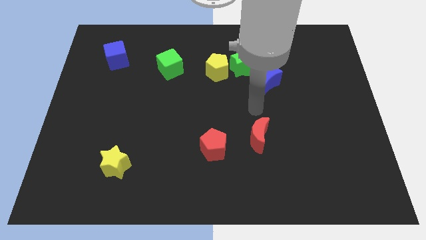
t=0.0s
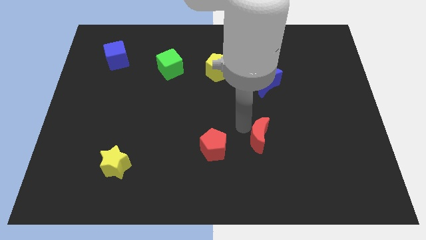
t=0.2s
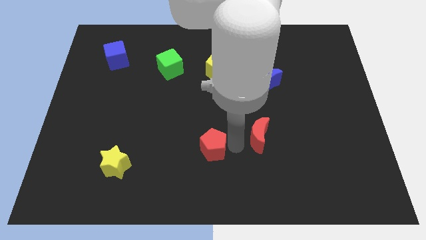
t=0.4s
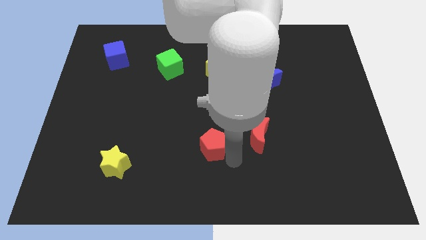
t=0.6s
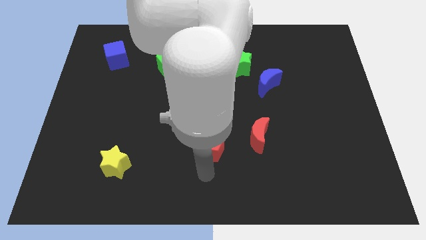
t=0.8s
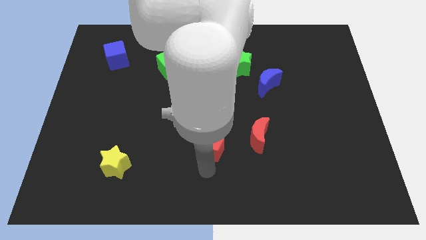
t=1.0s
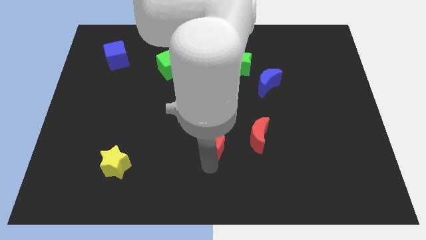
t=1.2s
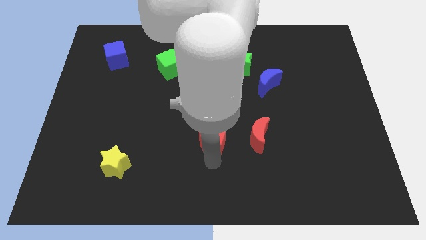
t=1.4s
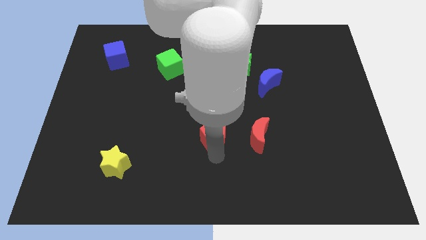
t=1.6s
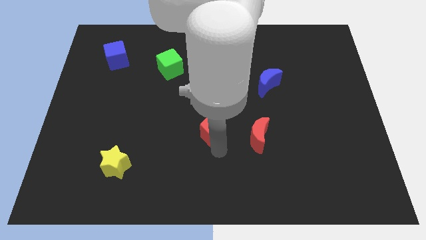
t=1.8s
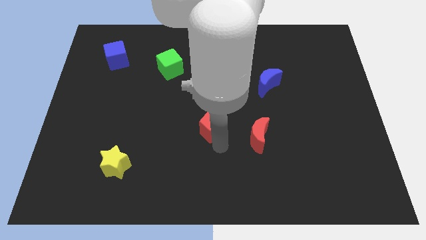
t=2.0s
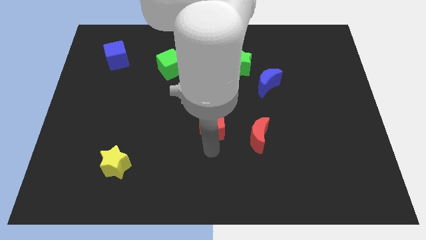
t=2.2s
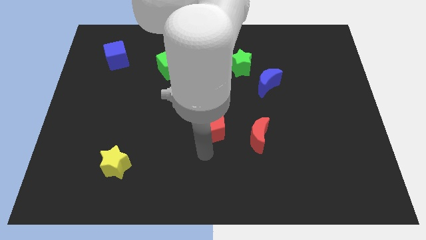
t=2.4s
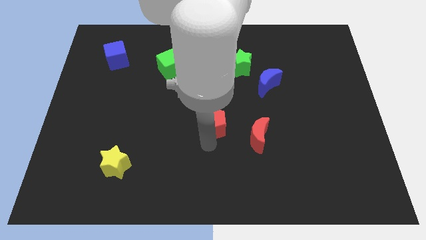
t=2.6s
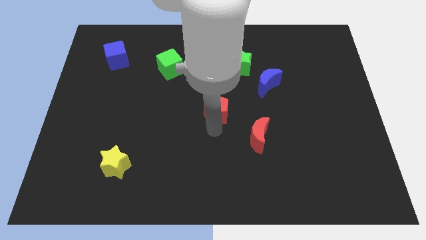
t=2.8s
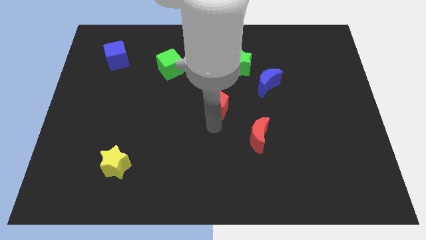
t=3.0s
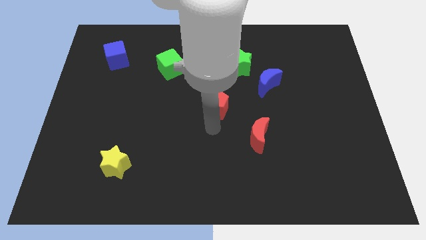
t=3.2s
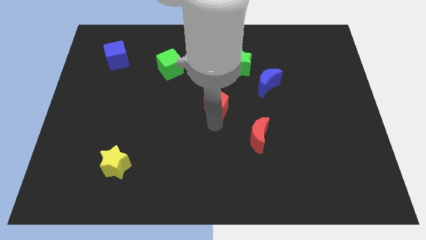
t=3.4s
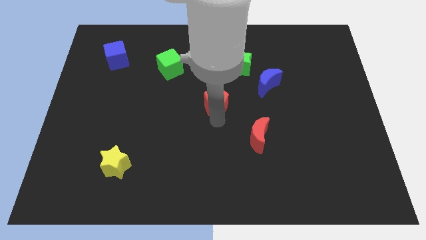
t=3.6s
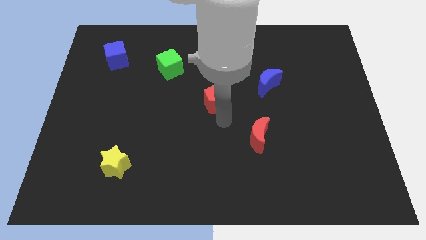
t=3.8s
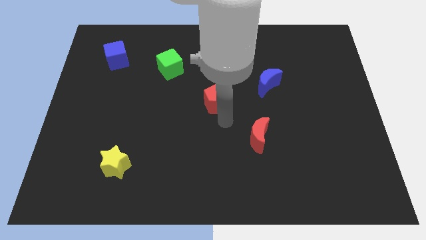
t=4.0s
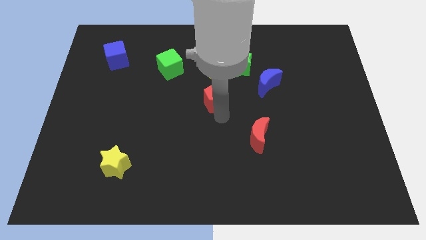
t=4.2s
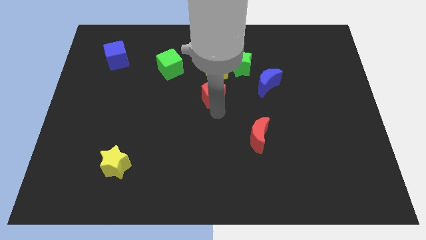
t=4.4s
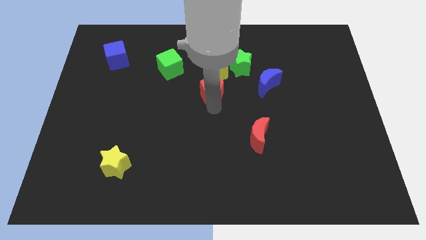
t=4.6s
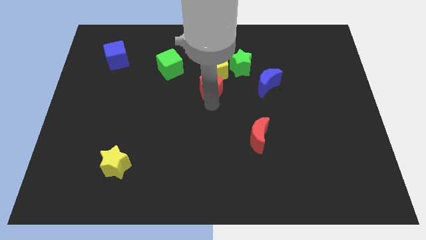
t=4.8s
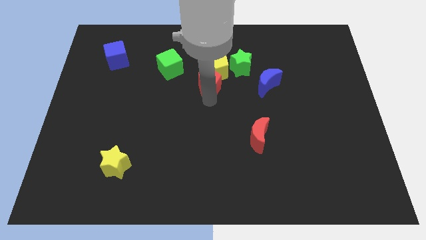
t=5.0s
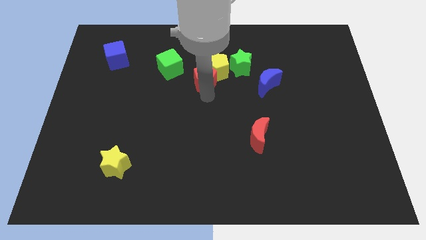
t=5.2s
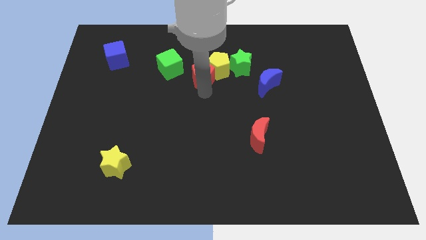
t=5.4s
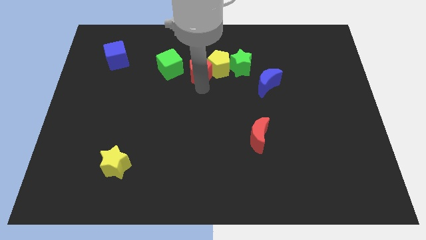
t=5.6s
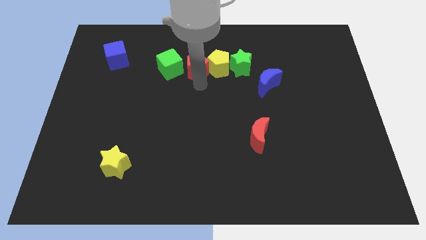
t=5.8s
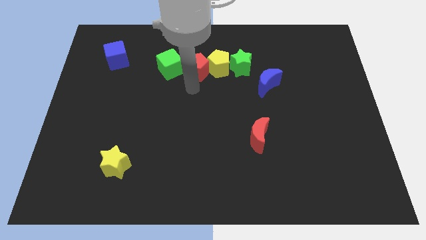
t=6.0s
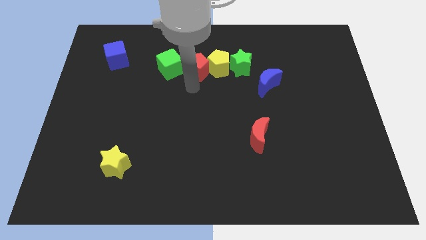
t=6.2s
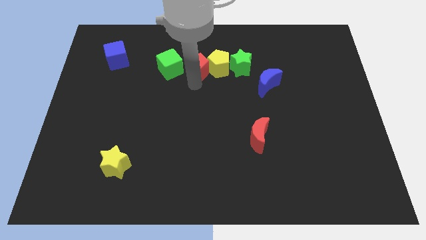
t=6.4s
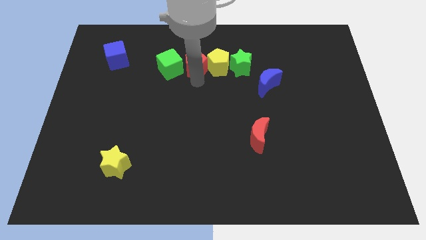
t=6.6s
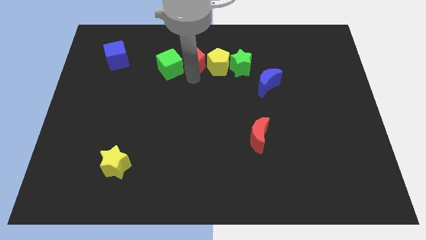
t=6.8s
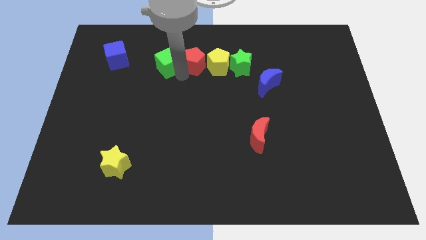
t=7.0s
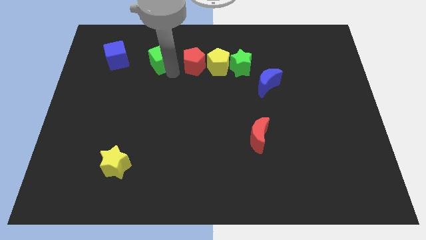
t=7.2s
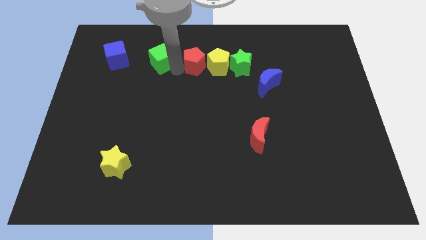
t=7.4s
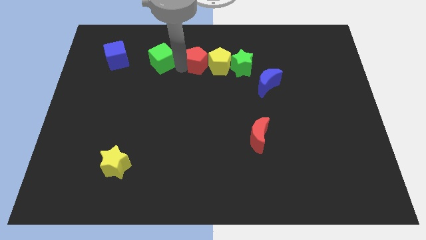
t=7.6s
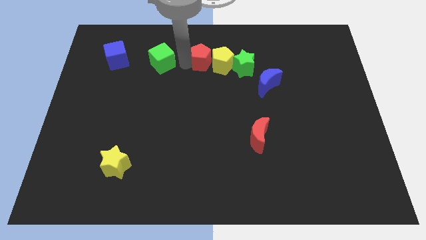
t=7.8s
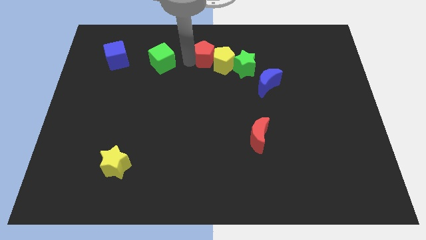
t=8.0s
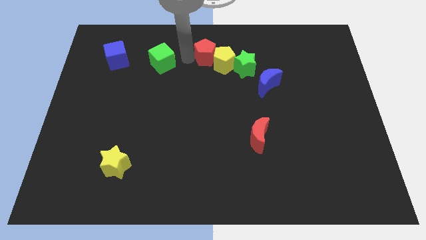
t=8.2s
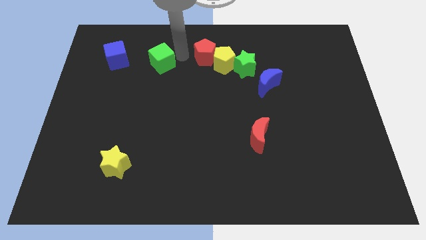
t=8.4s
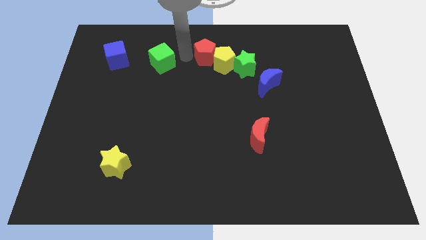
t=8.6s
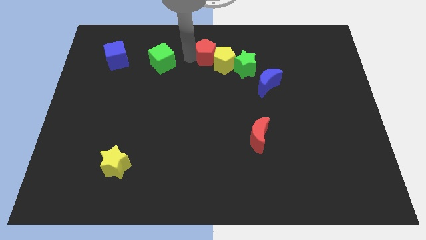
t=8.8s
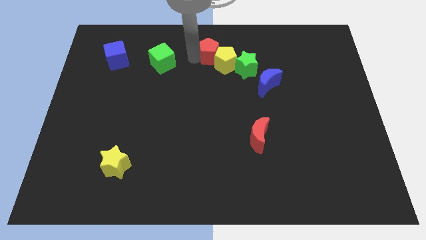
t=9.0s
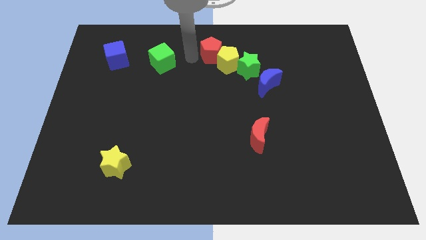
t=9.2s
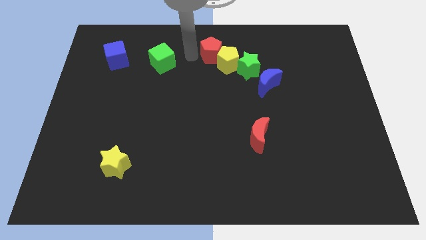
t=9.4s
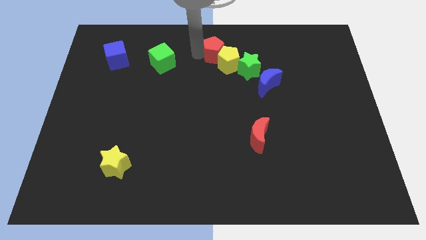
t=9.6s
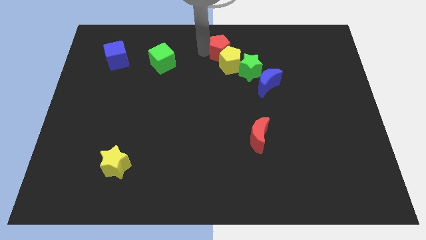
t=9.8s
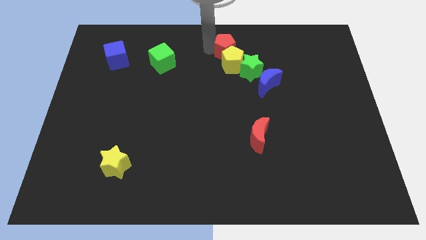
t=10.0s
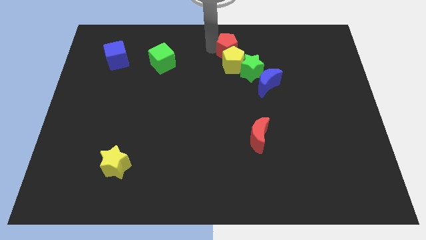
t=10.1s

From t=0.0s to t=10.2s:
move the red pentagon to the top right side of the yellow pentagon

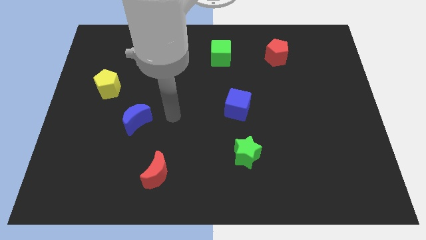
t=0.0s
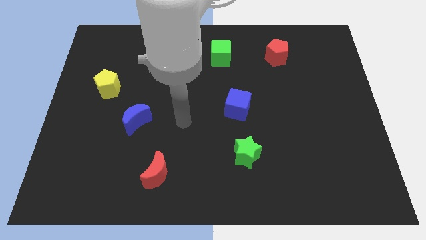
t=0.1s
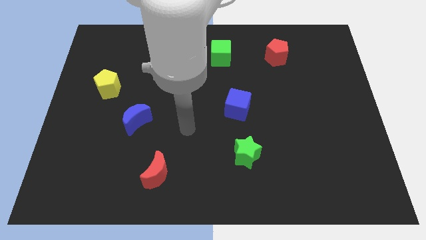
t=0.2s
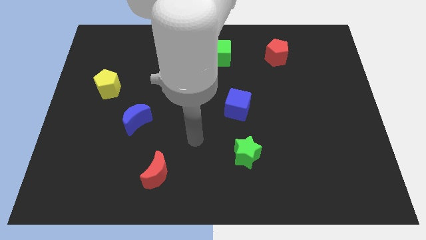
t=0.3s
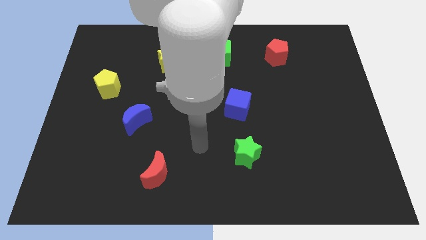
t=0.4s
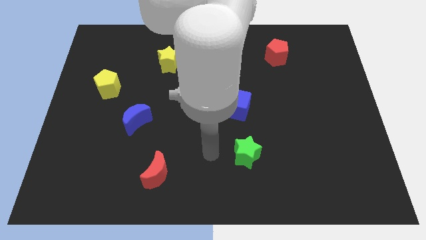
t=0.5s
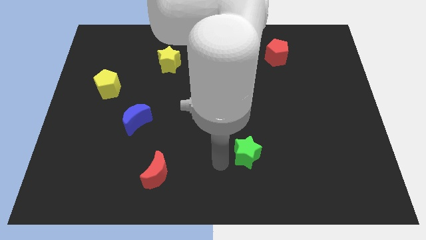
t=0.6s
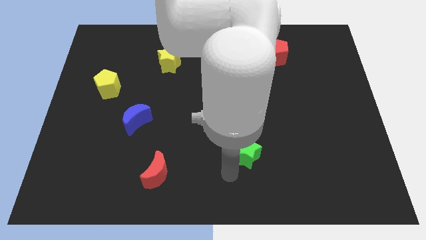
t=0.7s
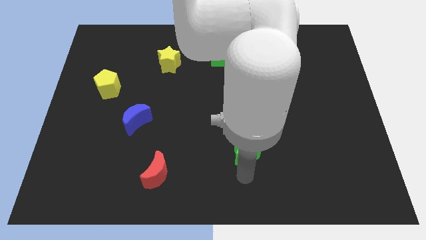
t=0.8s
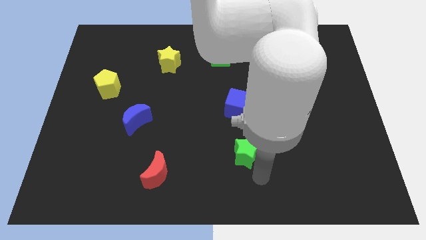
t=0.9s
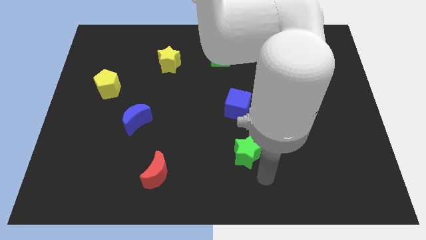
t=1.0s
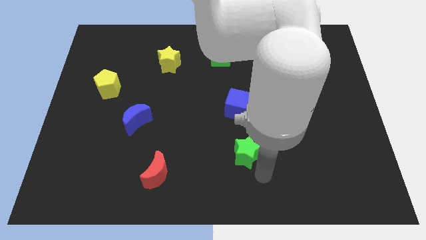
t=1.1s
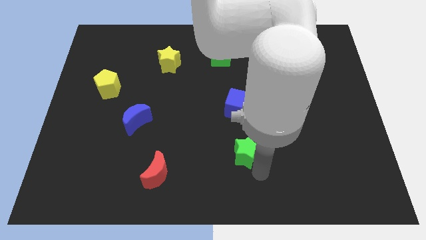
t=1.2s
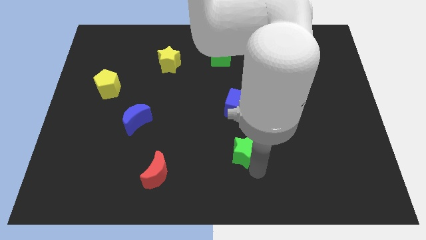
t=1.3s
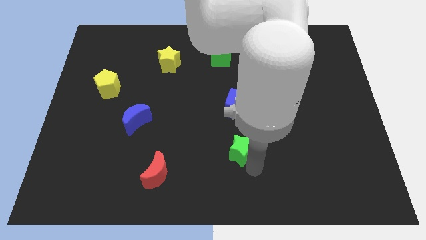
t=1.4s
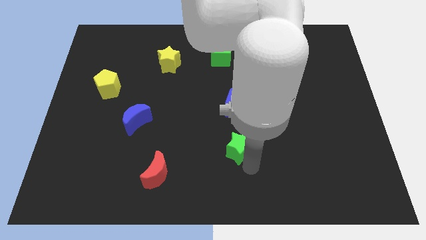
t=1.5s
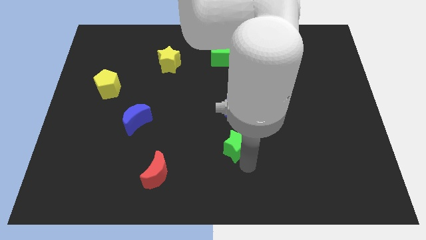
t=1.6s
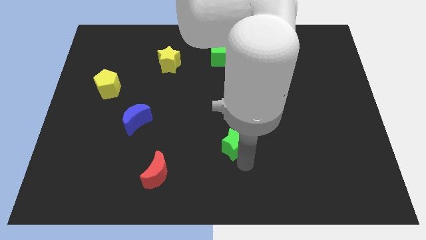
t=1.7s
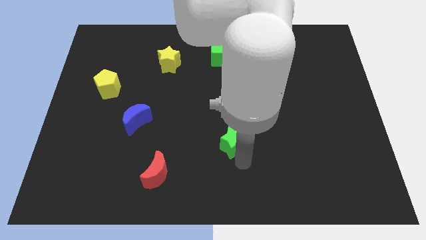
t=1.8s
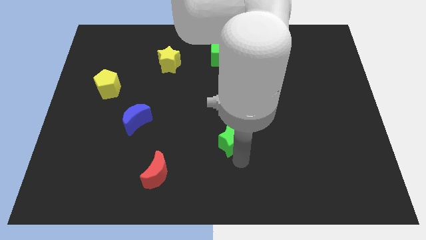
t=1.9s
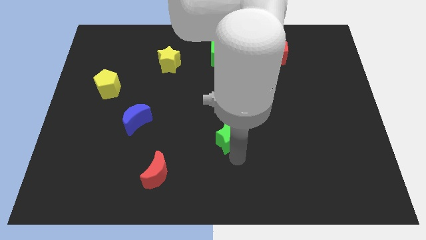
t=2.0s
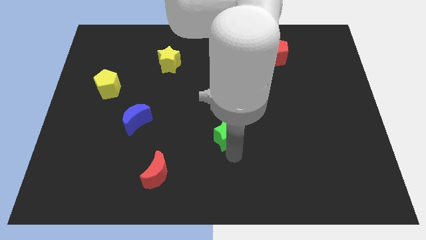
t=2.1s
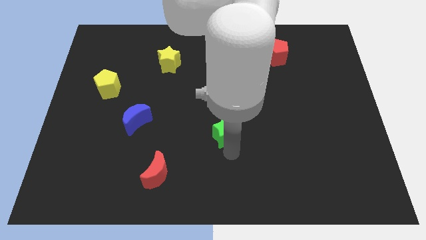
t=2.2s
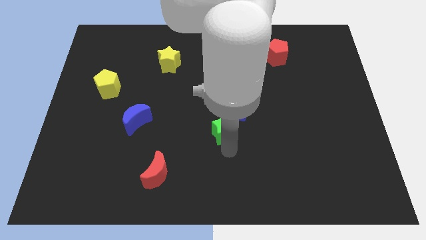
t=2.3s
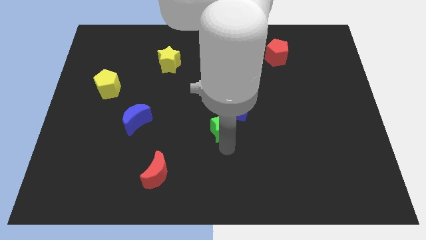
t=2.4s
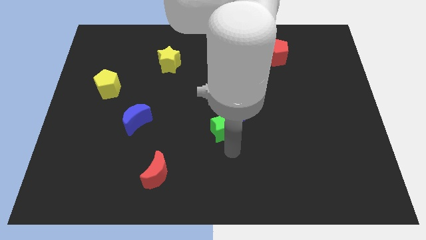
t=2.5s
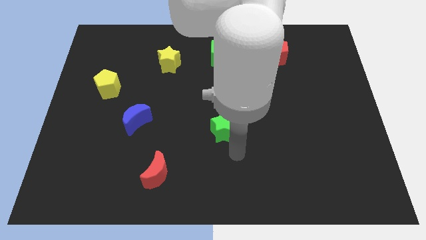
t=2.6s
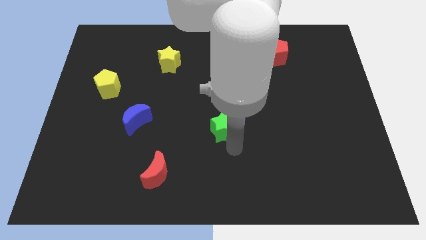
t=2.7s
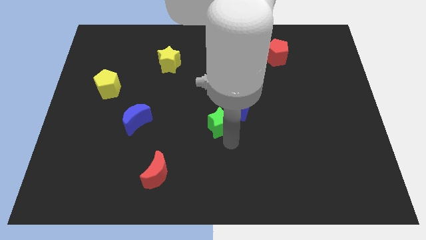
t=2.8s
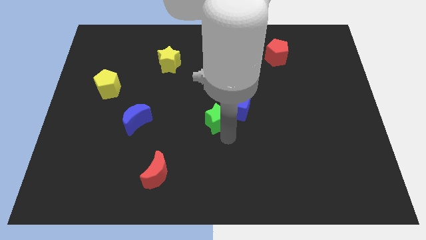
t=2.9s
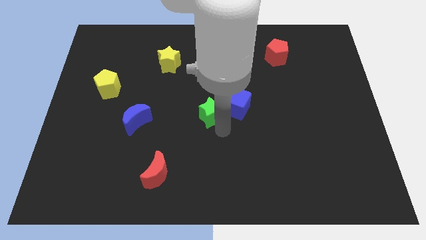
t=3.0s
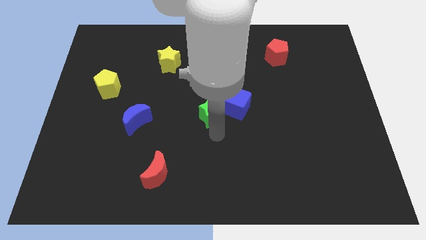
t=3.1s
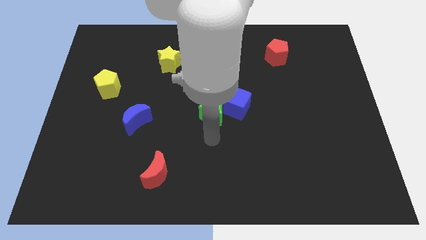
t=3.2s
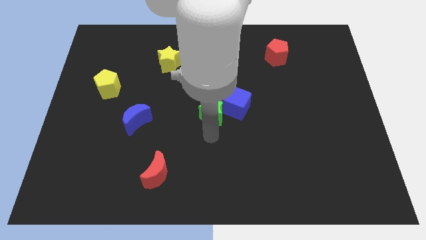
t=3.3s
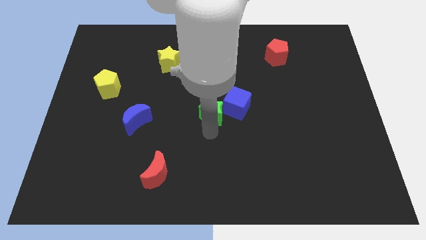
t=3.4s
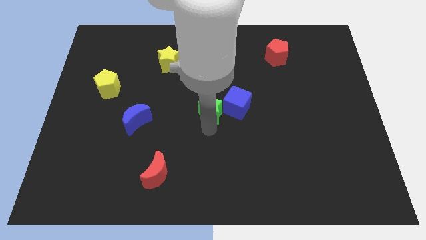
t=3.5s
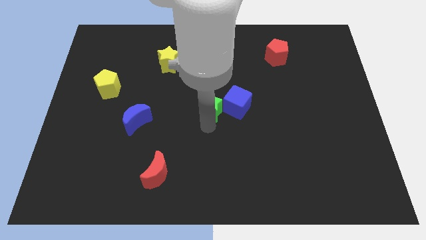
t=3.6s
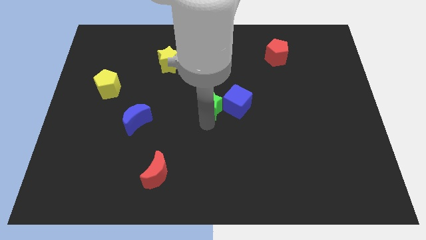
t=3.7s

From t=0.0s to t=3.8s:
move the green star diagonally up and to the left of the blue cube
